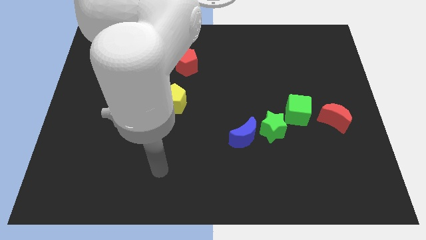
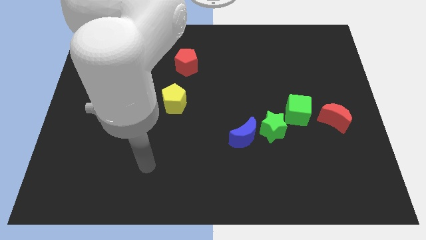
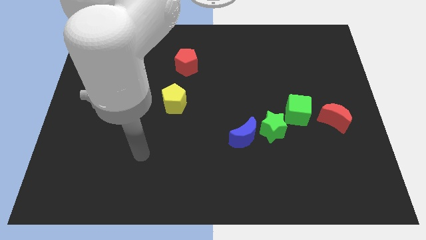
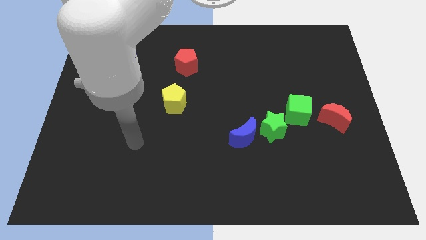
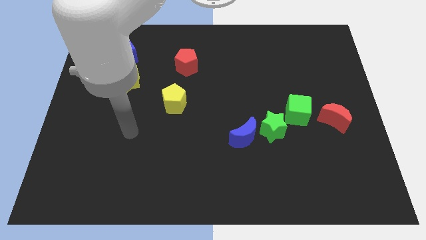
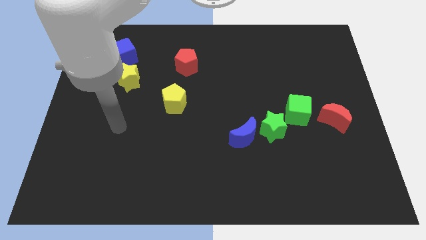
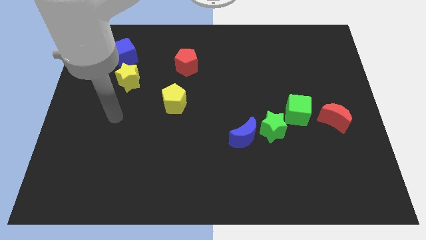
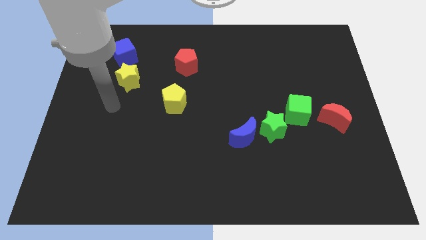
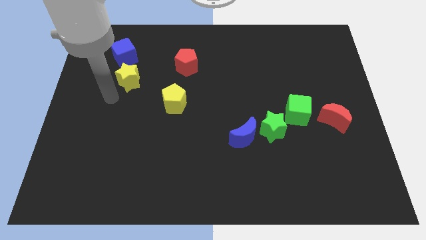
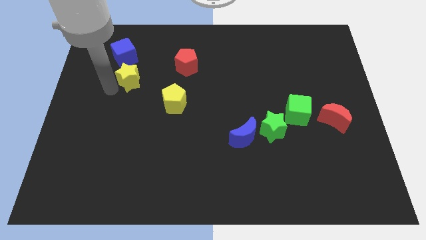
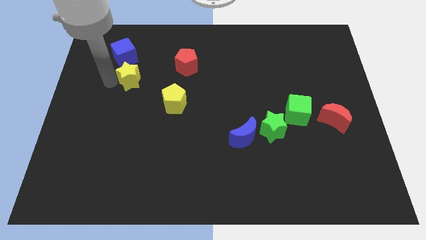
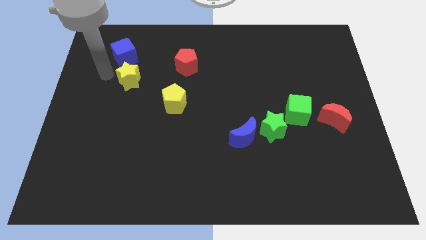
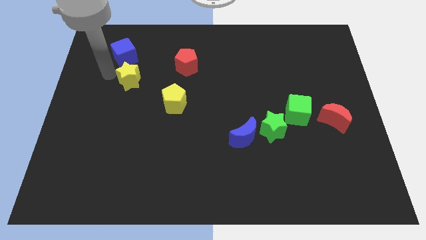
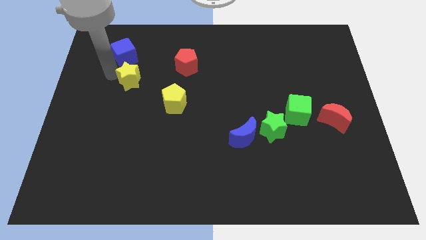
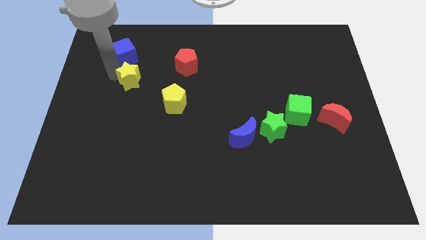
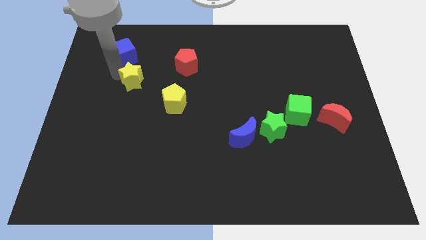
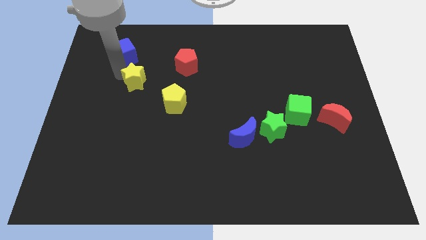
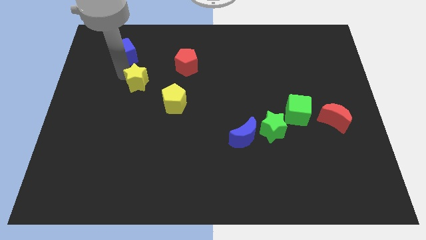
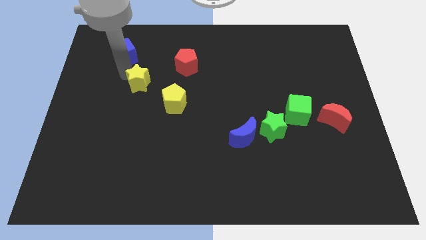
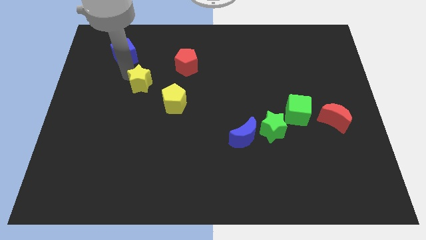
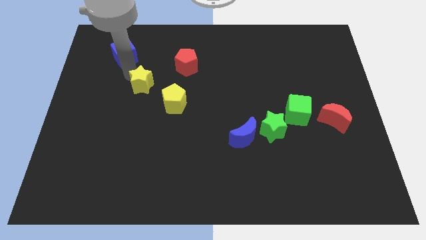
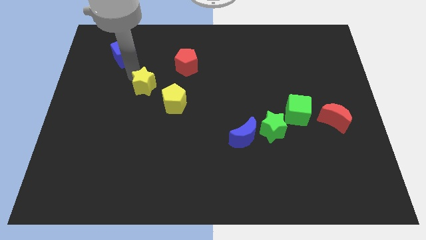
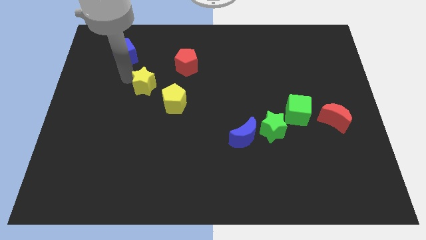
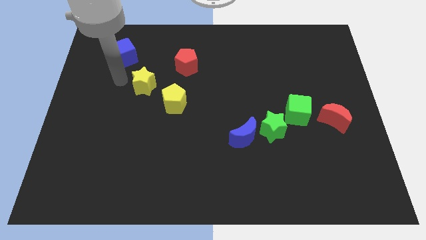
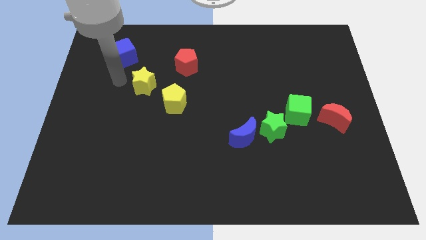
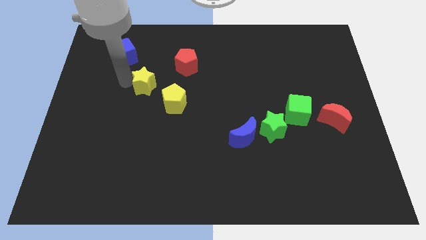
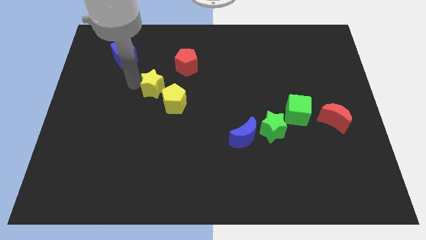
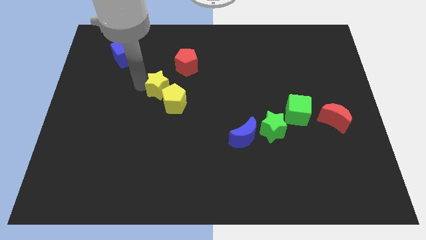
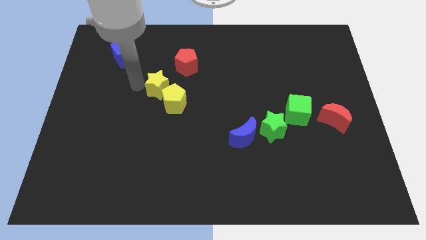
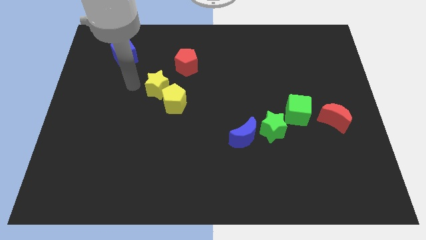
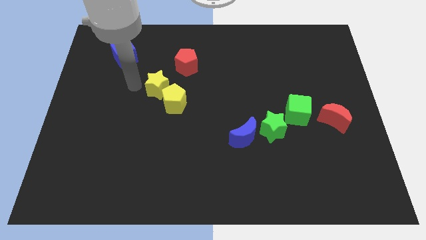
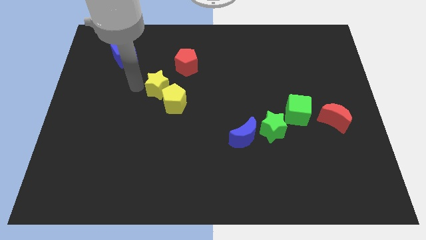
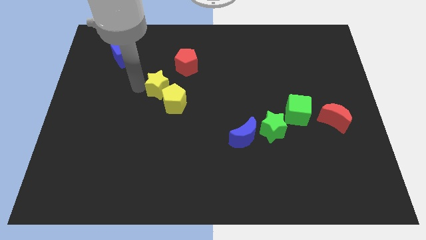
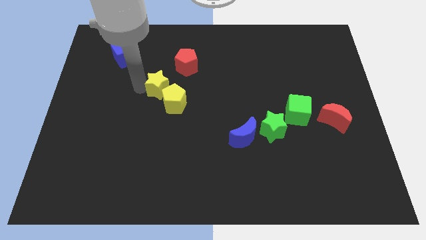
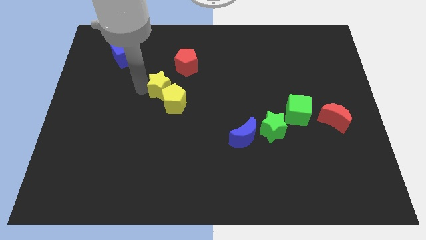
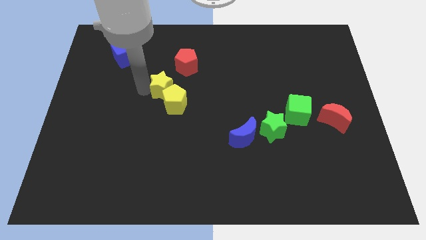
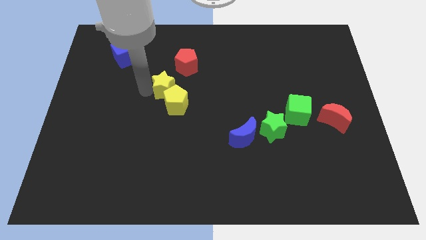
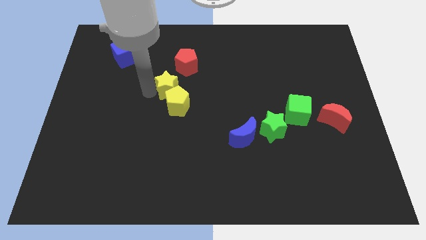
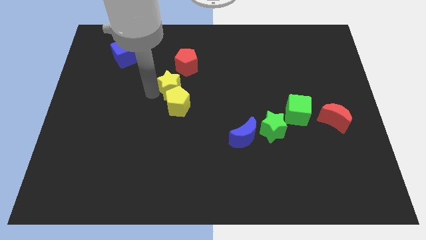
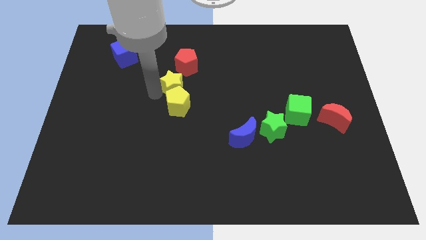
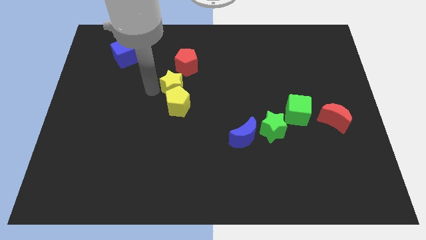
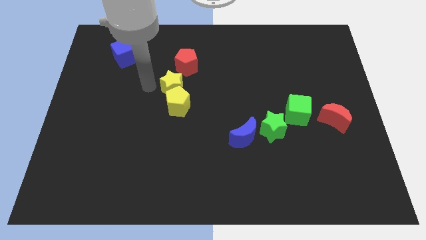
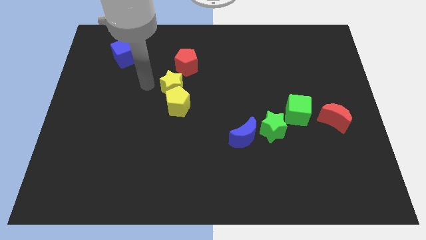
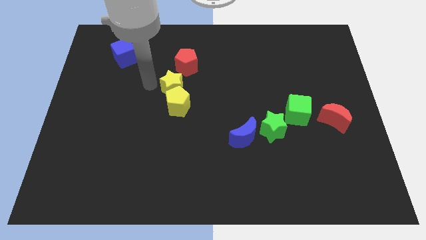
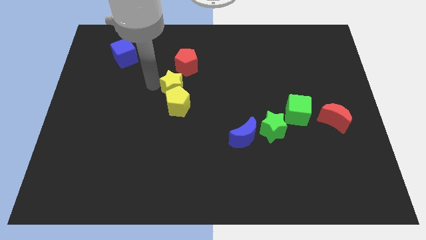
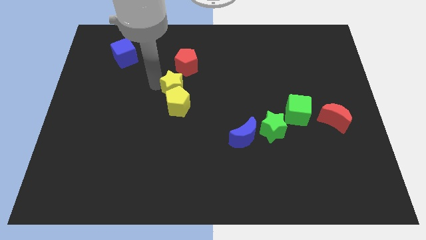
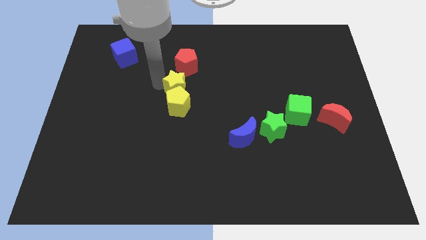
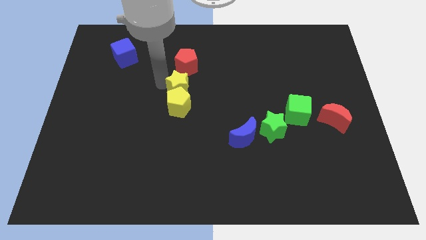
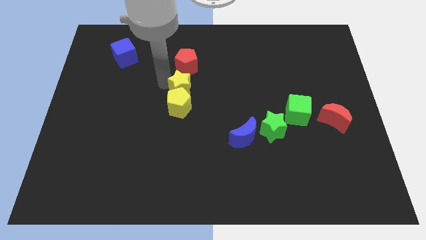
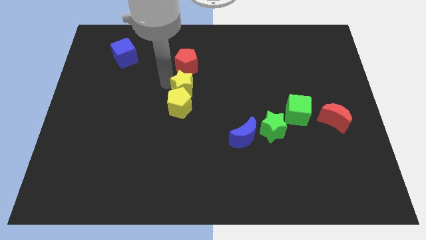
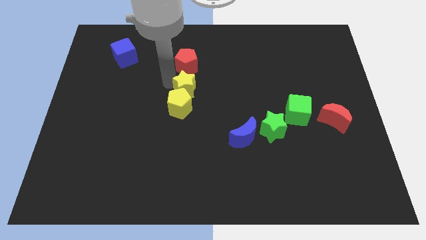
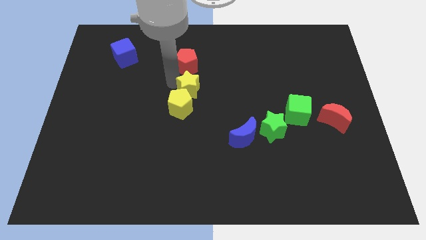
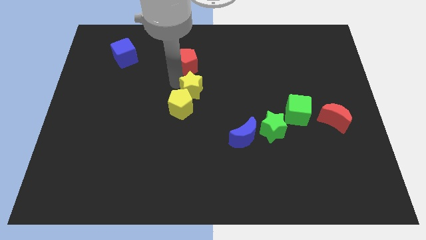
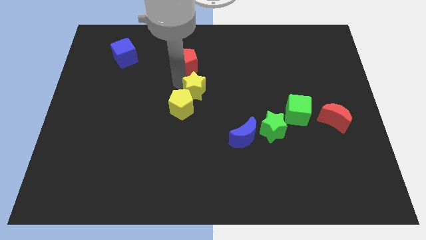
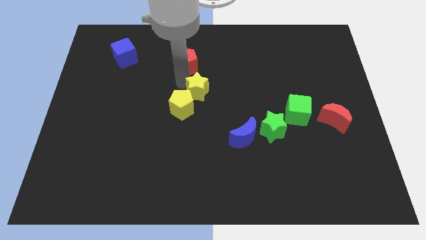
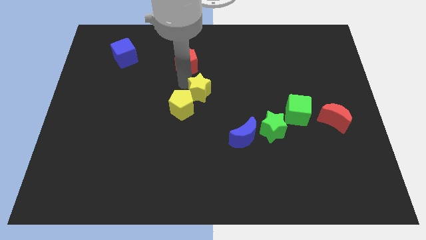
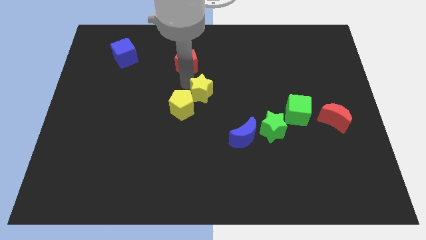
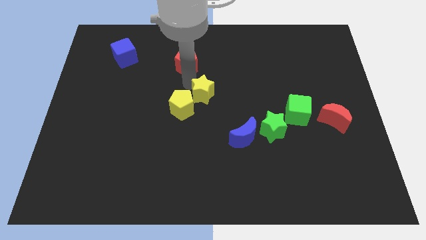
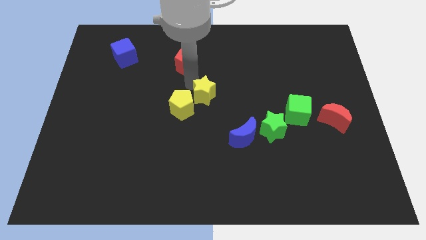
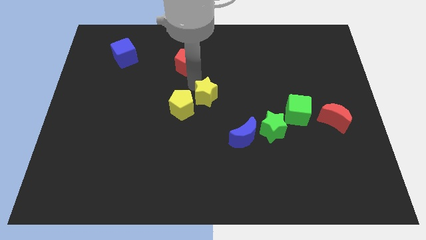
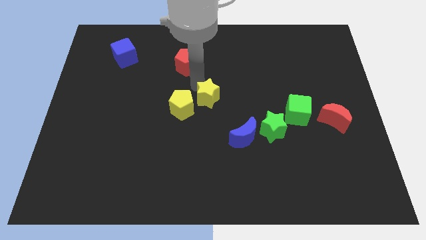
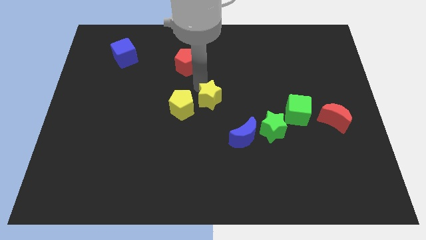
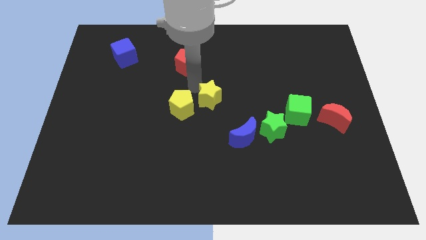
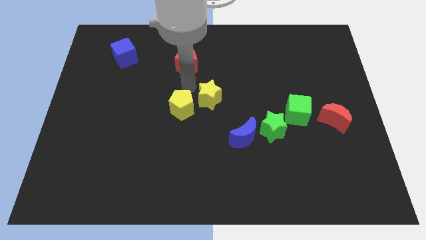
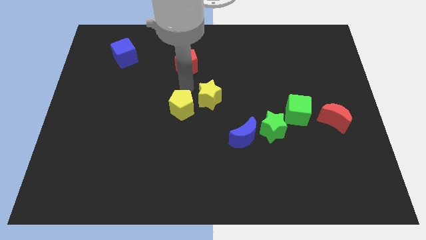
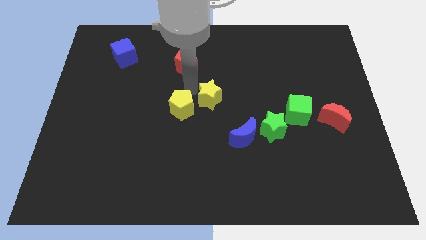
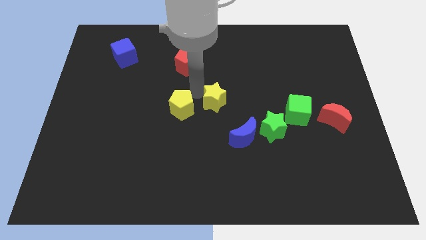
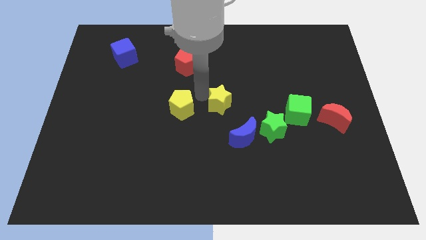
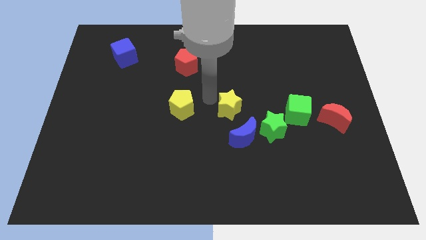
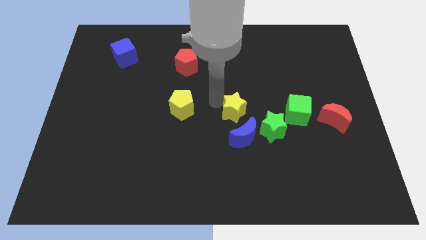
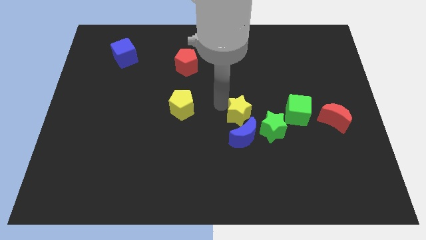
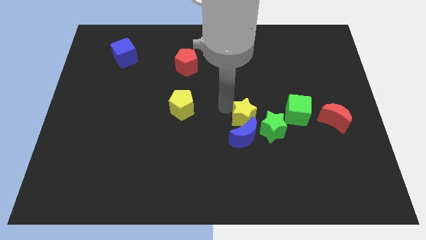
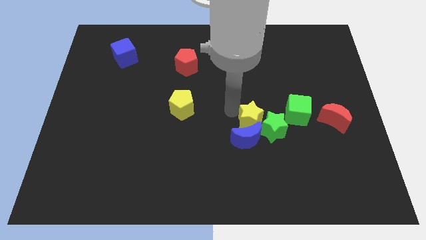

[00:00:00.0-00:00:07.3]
push the yellow star to the green star
